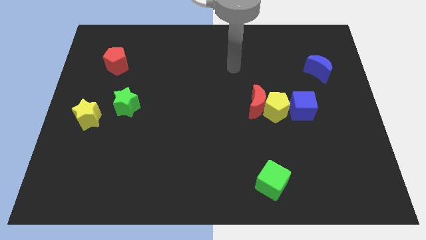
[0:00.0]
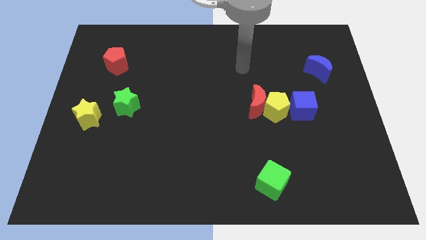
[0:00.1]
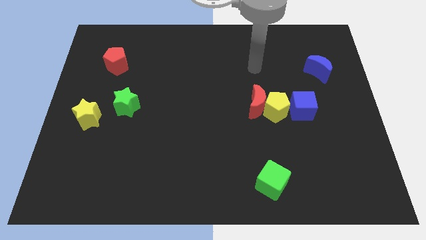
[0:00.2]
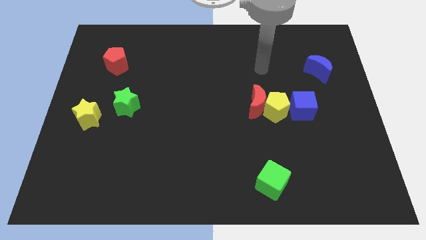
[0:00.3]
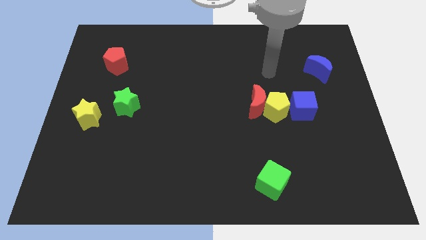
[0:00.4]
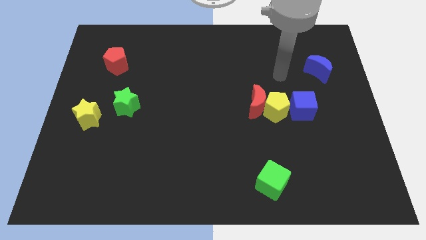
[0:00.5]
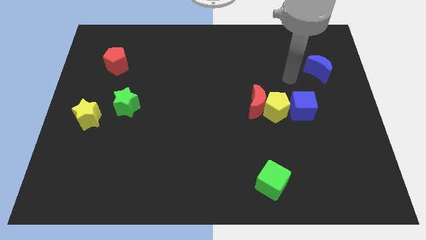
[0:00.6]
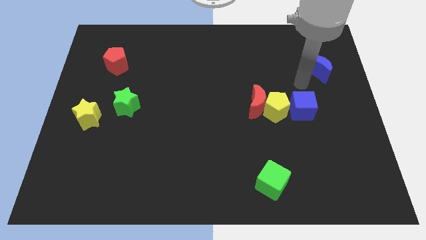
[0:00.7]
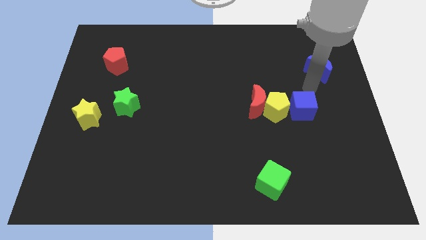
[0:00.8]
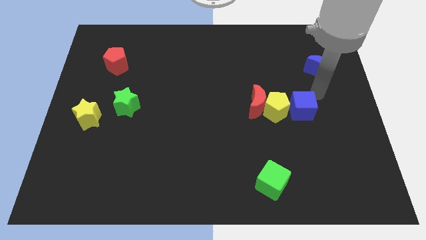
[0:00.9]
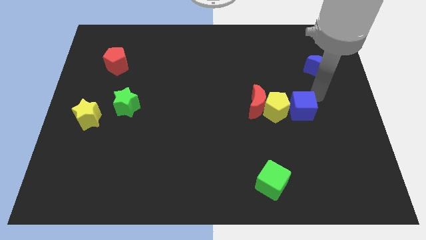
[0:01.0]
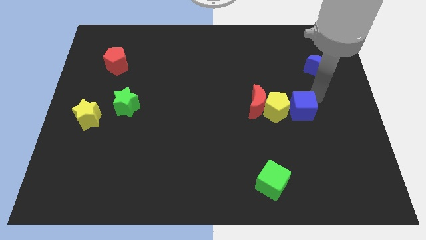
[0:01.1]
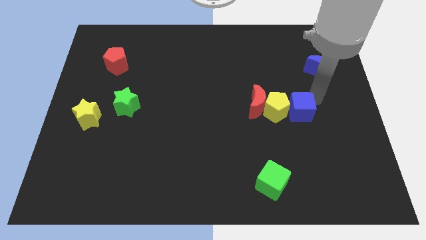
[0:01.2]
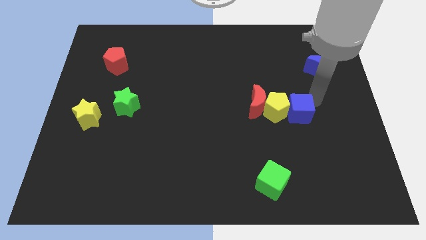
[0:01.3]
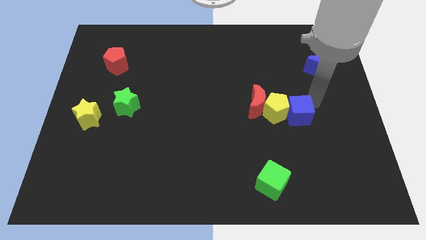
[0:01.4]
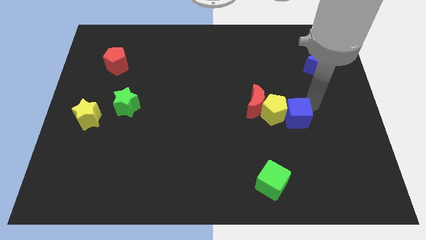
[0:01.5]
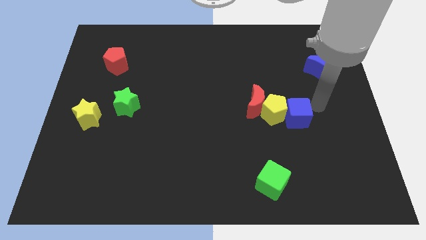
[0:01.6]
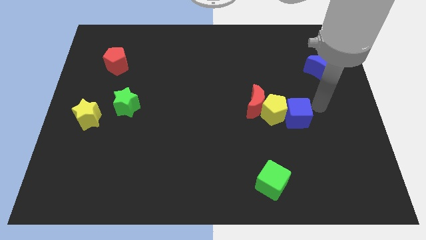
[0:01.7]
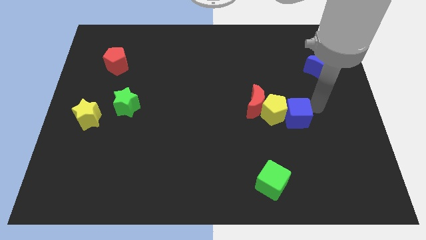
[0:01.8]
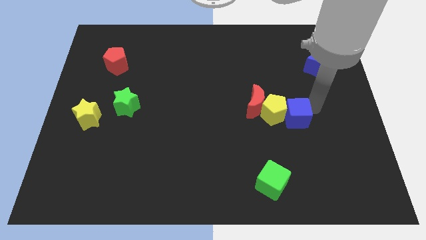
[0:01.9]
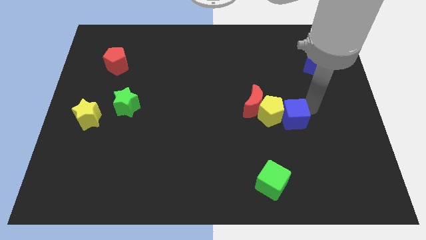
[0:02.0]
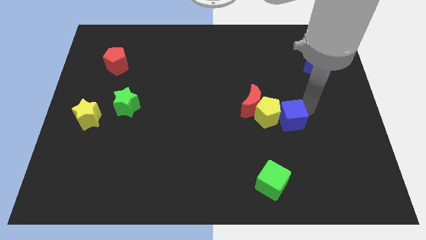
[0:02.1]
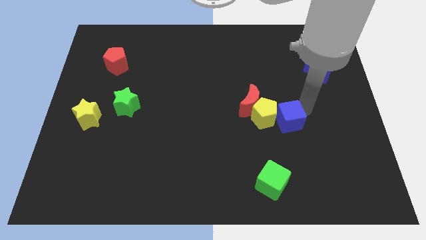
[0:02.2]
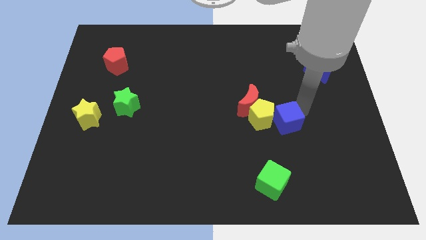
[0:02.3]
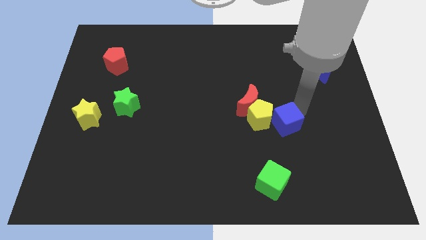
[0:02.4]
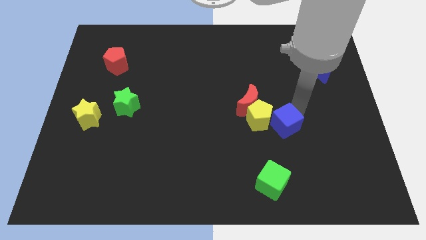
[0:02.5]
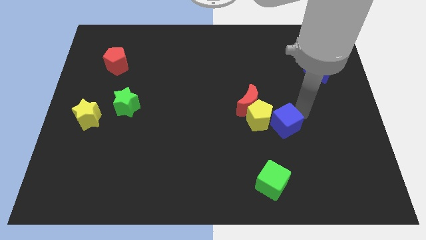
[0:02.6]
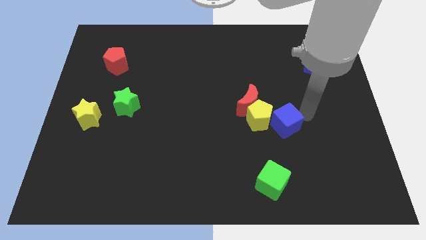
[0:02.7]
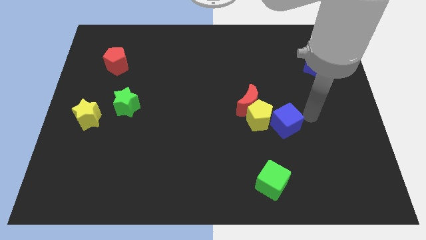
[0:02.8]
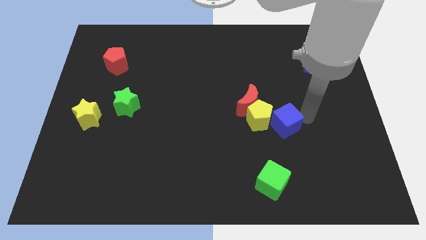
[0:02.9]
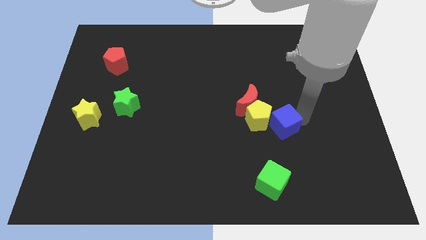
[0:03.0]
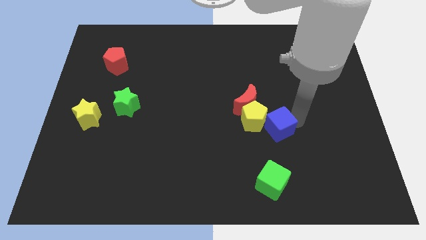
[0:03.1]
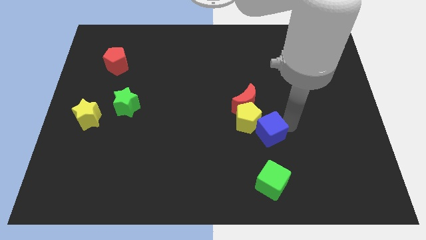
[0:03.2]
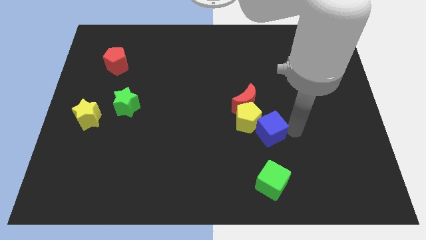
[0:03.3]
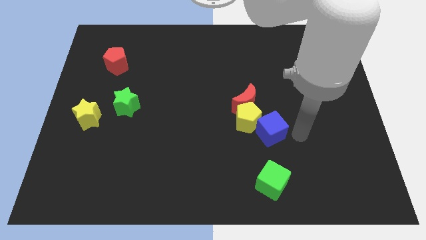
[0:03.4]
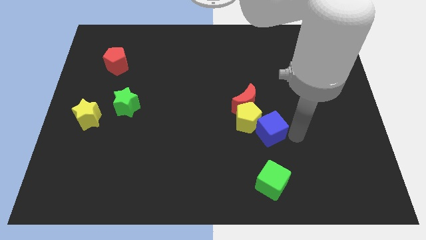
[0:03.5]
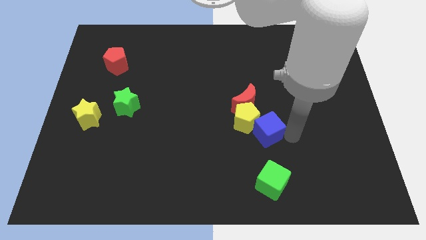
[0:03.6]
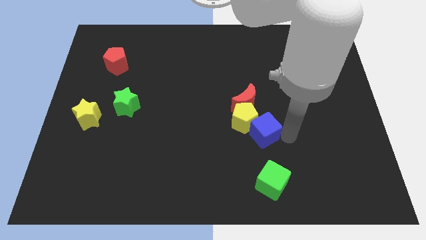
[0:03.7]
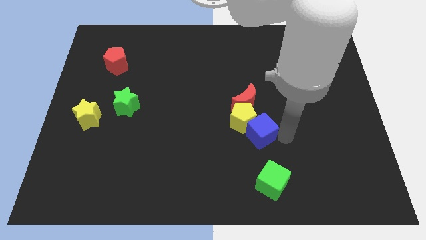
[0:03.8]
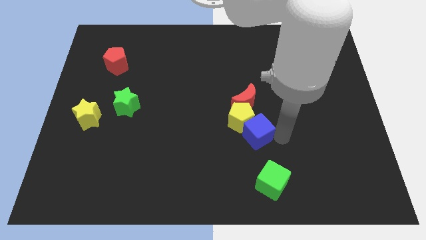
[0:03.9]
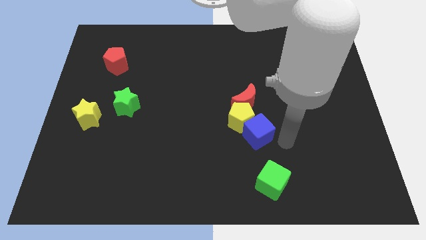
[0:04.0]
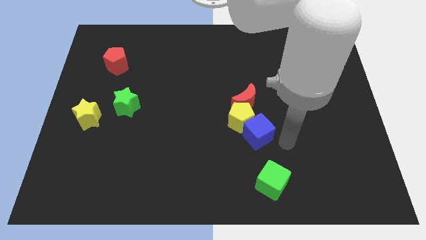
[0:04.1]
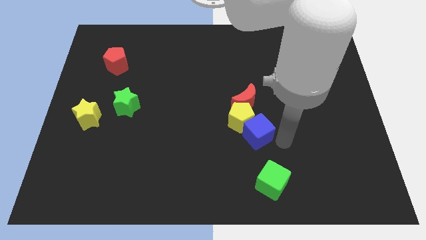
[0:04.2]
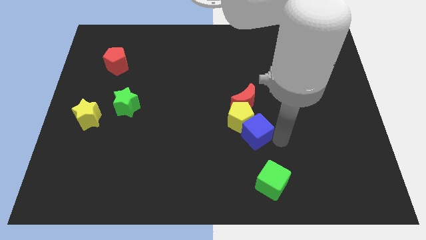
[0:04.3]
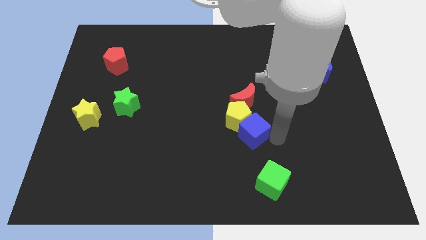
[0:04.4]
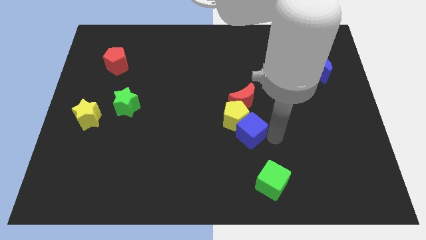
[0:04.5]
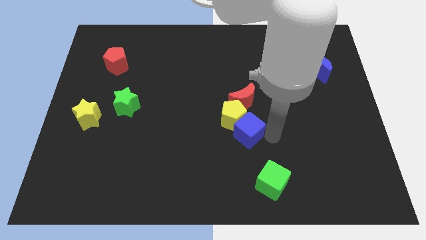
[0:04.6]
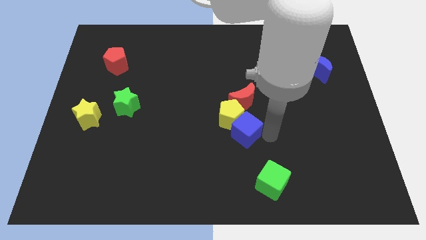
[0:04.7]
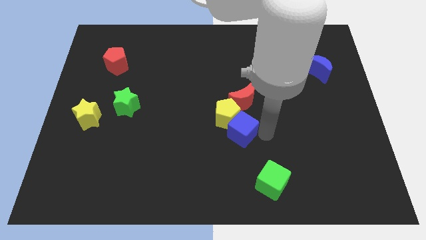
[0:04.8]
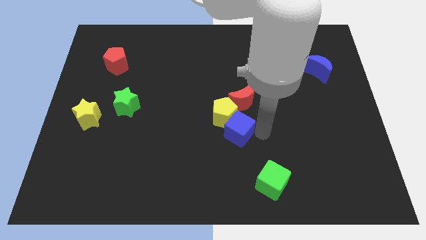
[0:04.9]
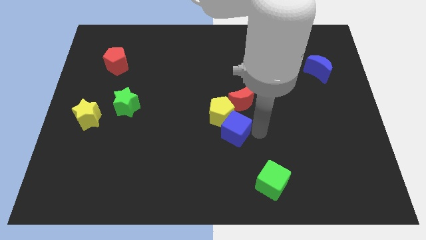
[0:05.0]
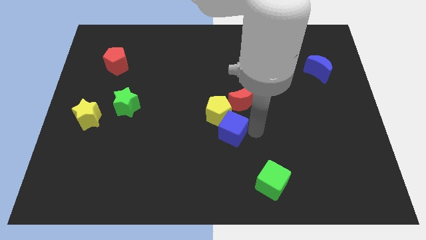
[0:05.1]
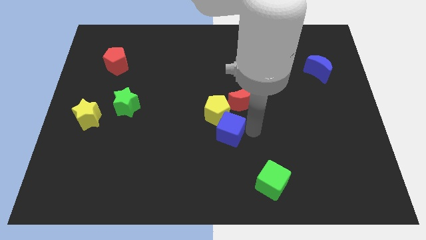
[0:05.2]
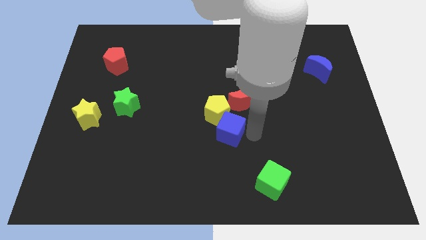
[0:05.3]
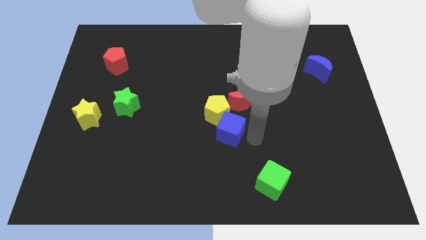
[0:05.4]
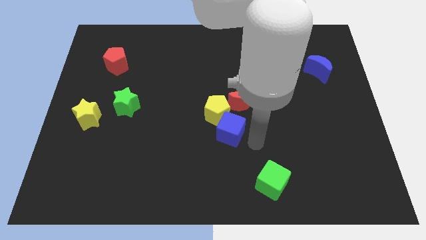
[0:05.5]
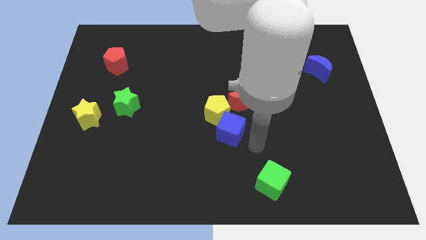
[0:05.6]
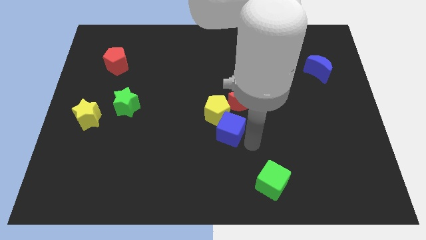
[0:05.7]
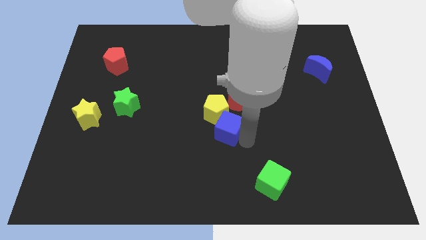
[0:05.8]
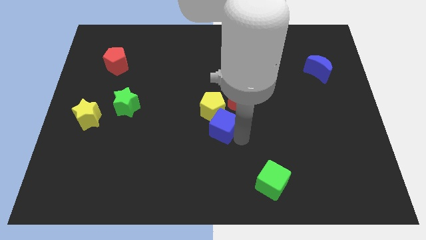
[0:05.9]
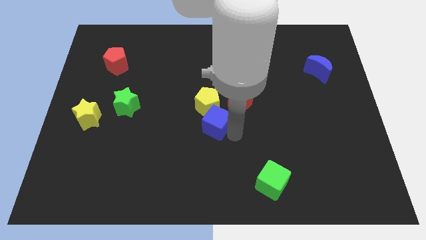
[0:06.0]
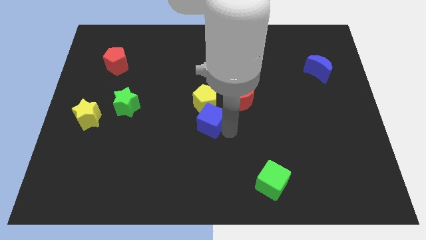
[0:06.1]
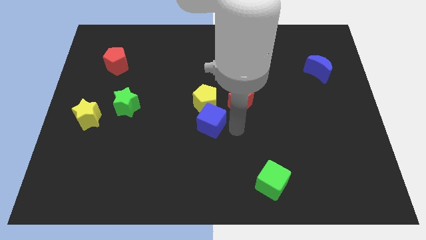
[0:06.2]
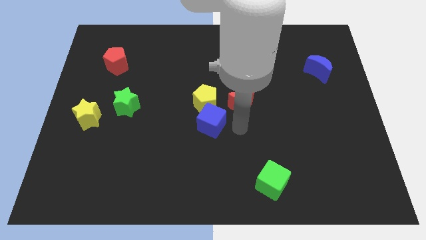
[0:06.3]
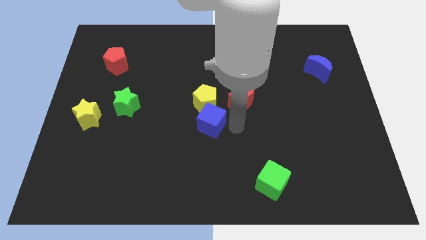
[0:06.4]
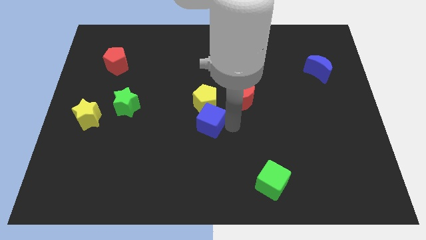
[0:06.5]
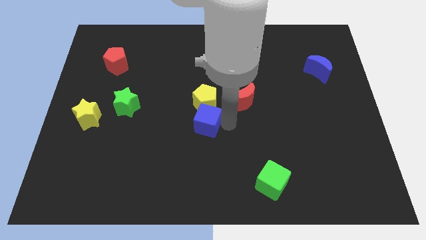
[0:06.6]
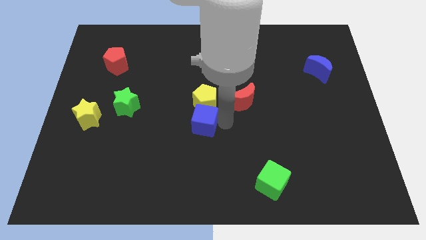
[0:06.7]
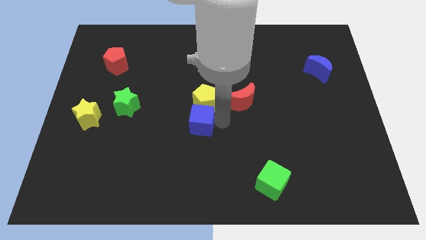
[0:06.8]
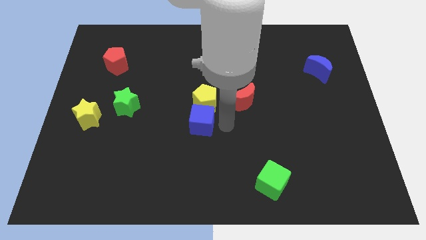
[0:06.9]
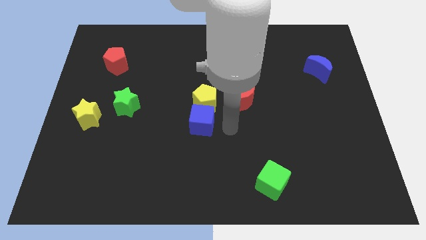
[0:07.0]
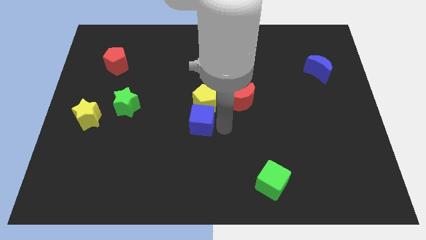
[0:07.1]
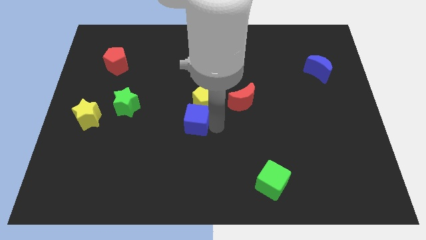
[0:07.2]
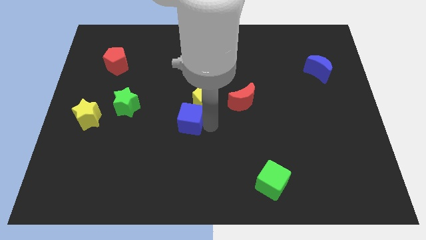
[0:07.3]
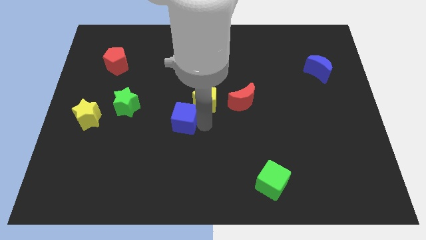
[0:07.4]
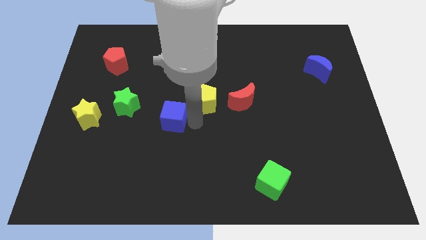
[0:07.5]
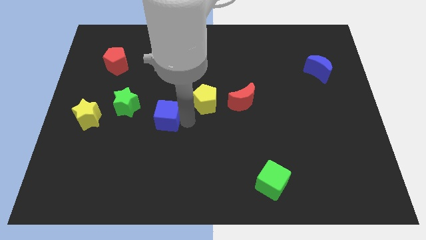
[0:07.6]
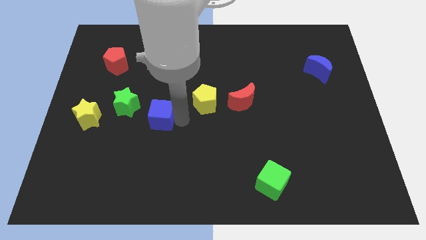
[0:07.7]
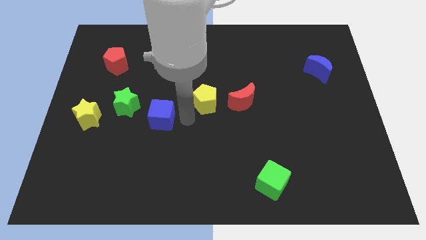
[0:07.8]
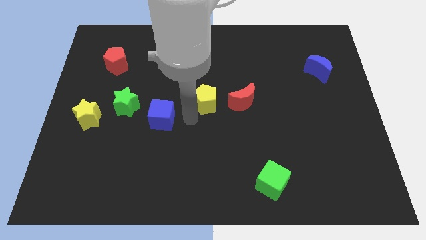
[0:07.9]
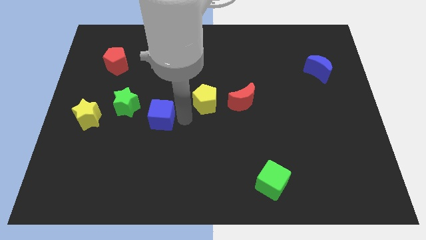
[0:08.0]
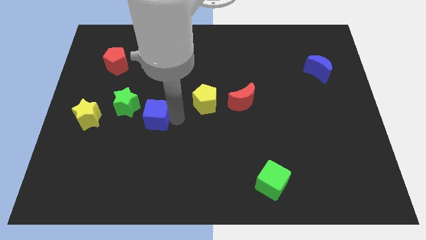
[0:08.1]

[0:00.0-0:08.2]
move the blue cube to the right side of the yellow star

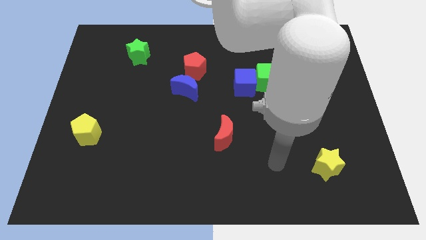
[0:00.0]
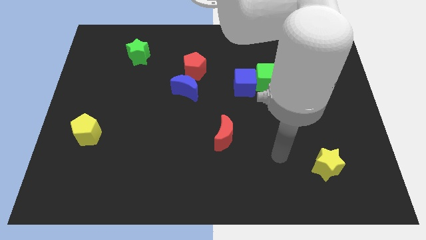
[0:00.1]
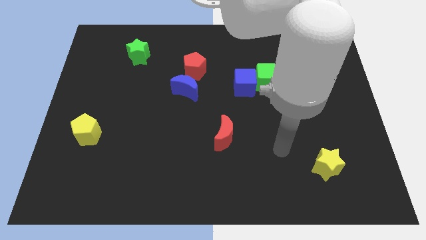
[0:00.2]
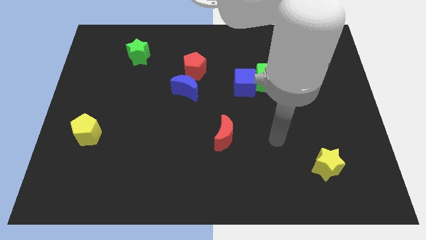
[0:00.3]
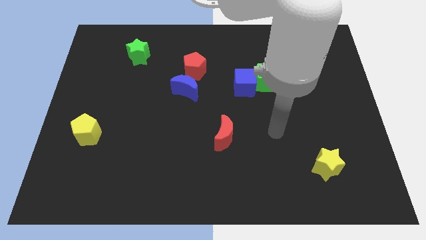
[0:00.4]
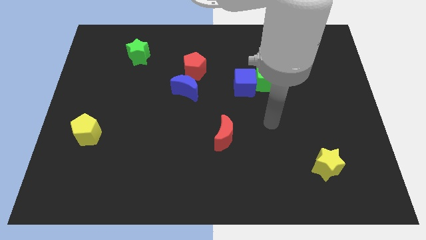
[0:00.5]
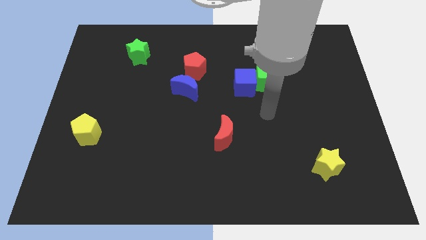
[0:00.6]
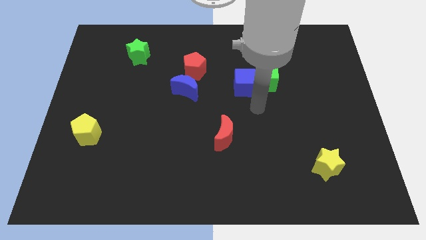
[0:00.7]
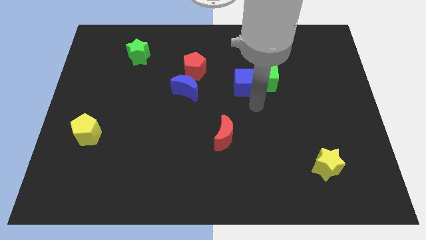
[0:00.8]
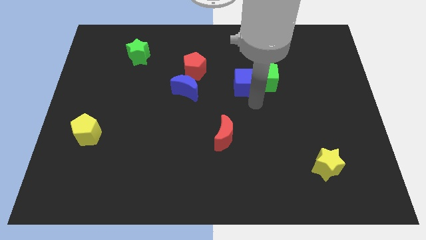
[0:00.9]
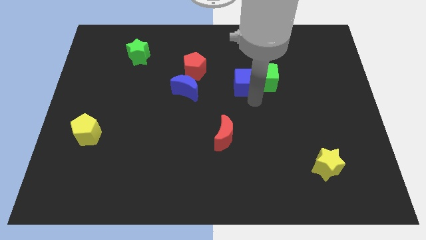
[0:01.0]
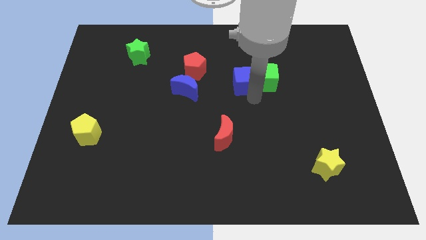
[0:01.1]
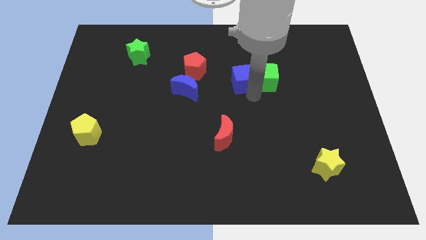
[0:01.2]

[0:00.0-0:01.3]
put the blue cube just right of the red pentagon
